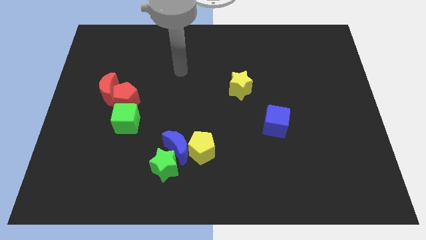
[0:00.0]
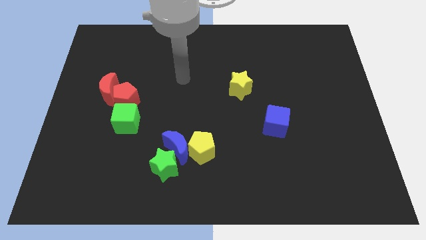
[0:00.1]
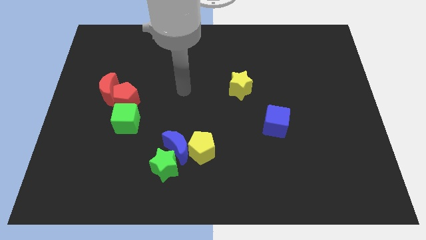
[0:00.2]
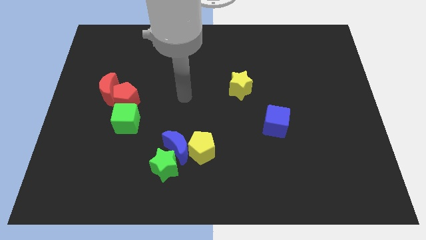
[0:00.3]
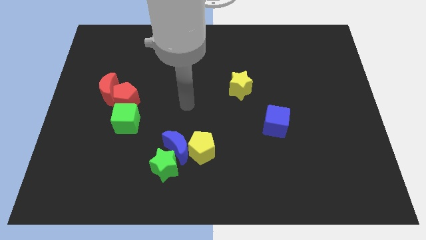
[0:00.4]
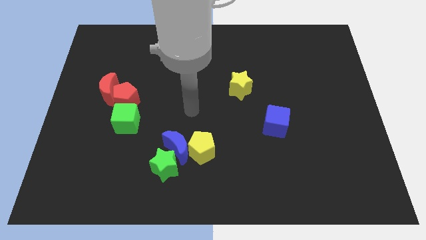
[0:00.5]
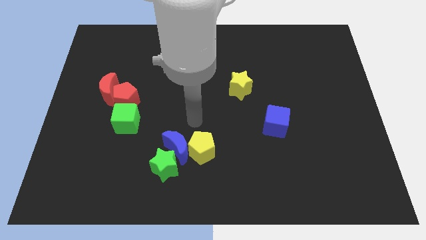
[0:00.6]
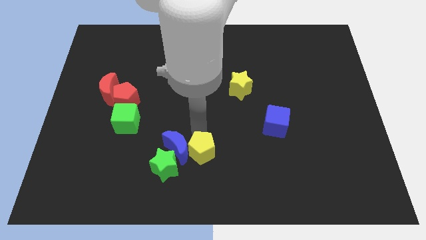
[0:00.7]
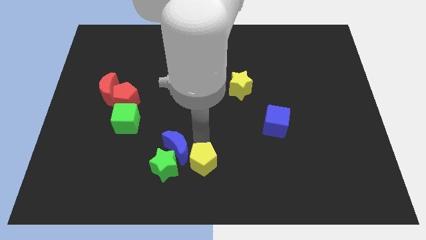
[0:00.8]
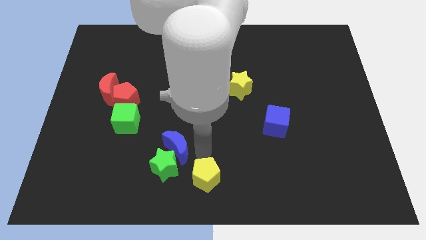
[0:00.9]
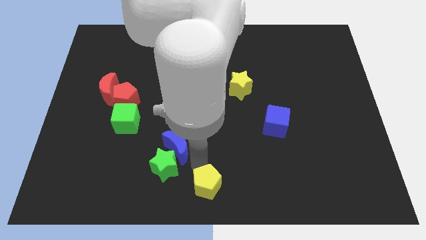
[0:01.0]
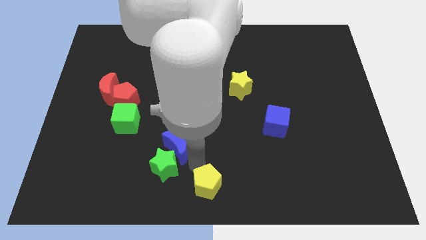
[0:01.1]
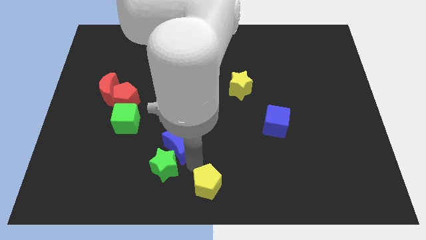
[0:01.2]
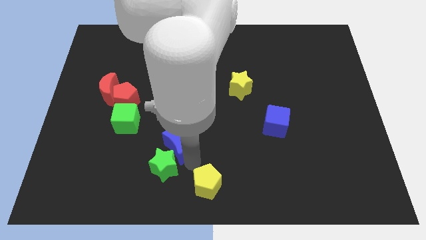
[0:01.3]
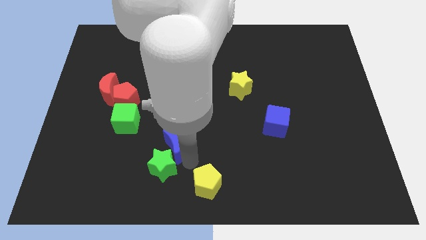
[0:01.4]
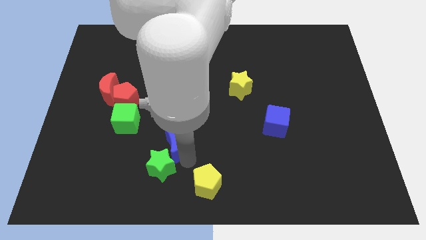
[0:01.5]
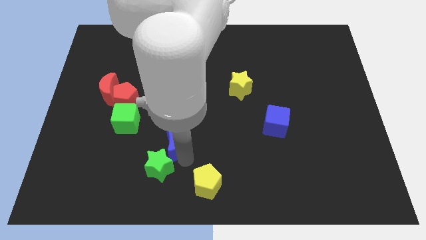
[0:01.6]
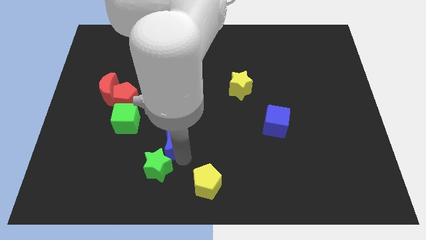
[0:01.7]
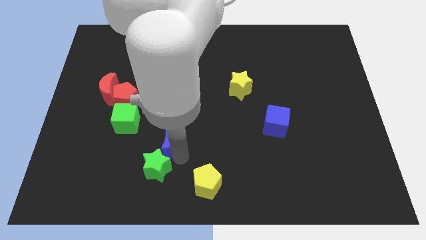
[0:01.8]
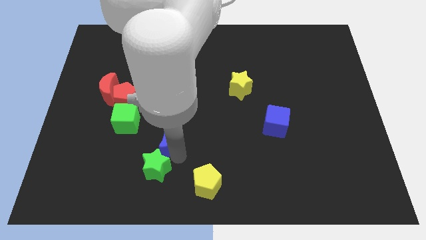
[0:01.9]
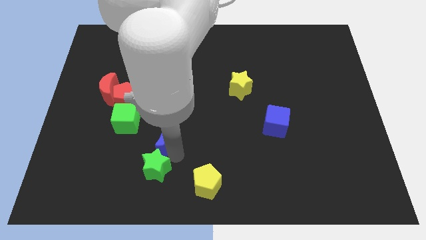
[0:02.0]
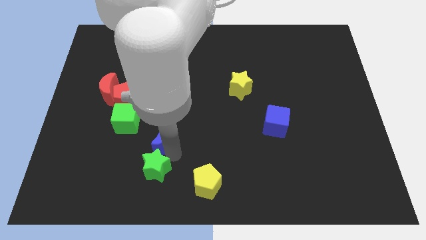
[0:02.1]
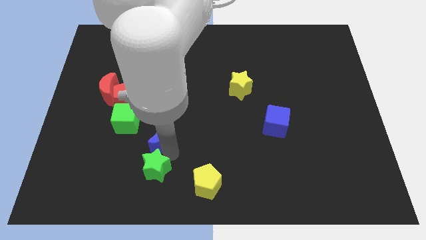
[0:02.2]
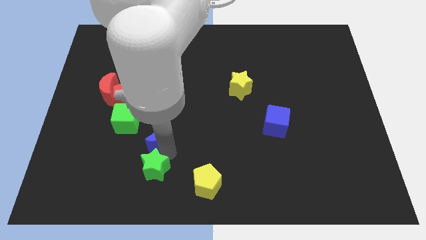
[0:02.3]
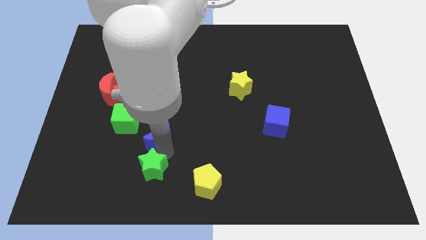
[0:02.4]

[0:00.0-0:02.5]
move the blue moon away from the green star and yellow pentagon

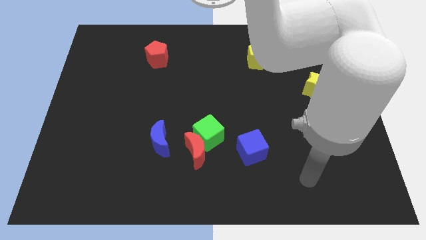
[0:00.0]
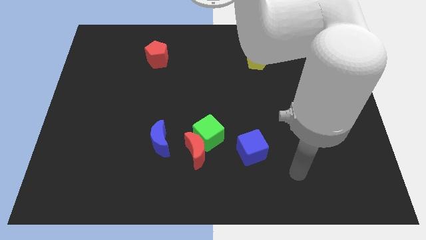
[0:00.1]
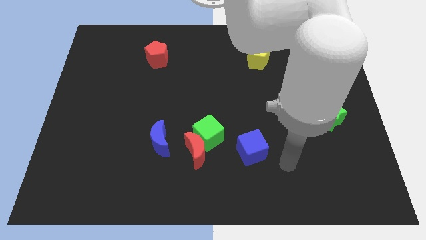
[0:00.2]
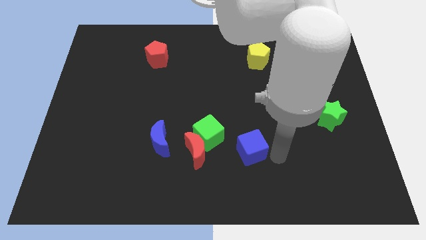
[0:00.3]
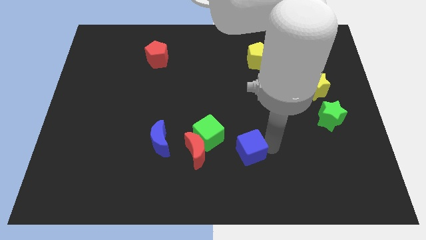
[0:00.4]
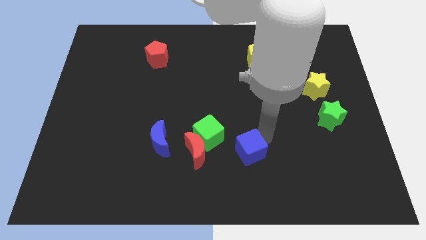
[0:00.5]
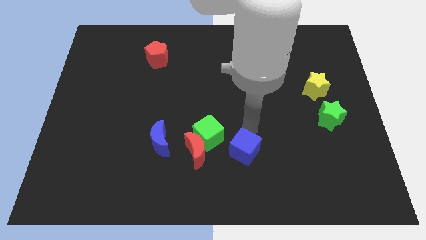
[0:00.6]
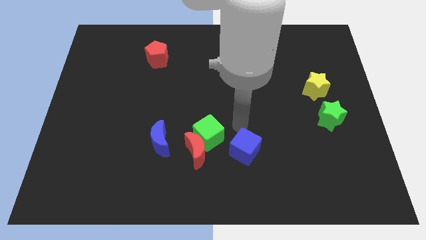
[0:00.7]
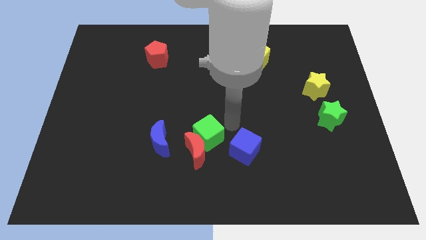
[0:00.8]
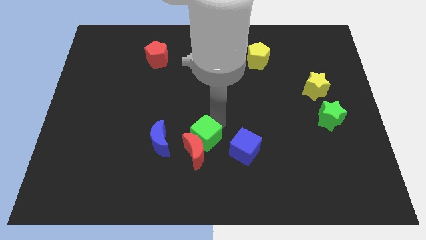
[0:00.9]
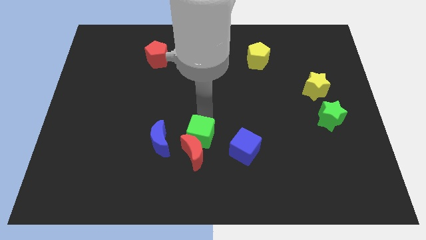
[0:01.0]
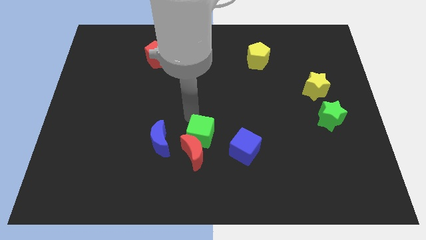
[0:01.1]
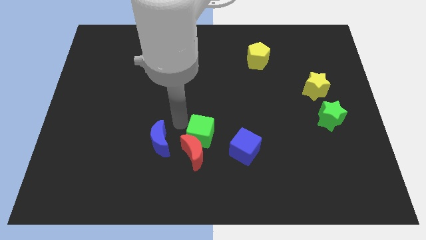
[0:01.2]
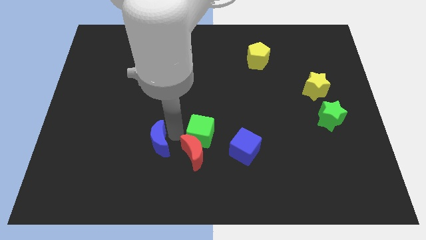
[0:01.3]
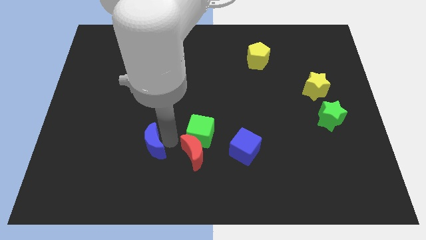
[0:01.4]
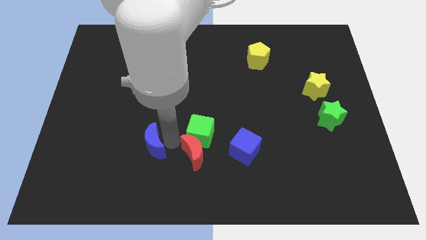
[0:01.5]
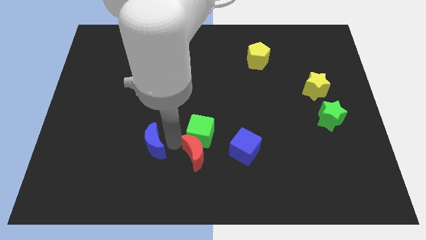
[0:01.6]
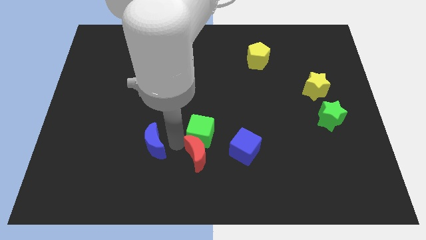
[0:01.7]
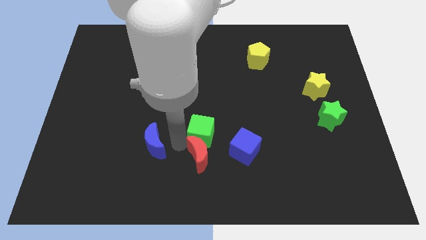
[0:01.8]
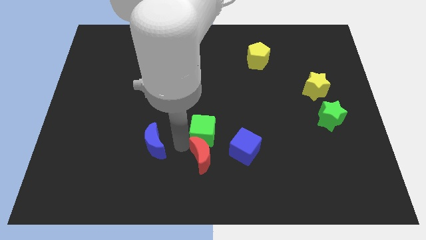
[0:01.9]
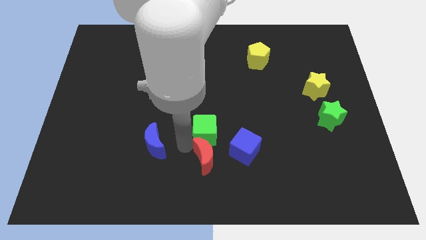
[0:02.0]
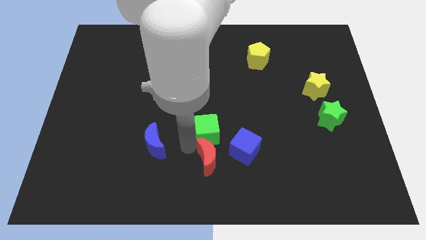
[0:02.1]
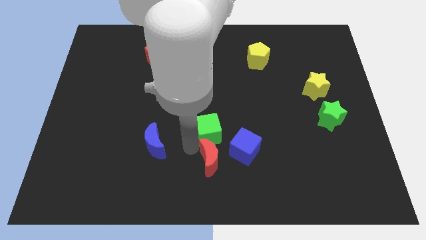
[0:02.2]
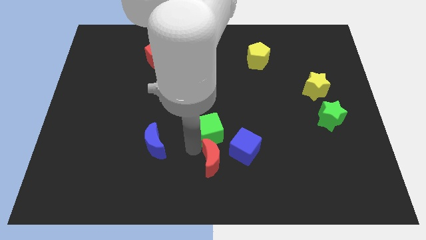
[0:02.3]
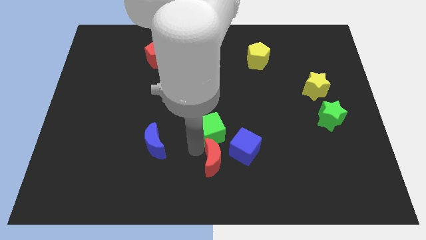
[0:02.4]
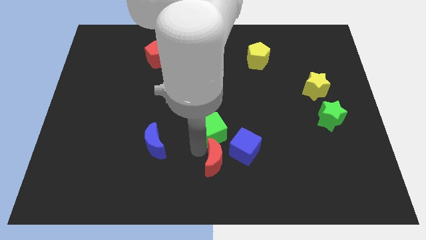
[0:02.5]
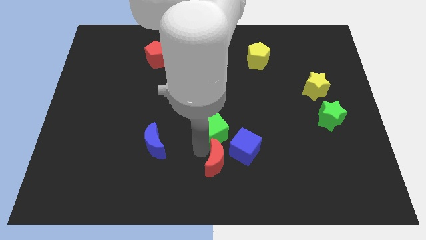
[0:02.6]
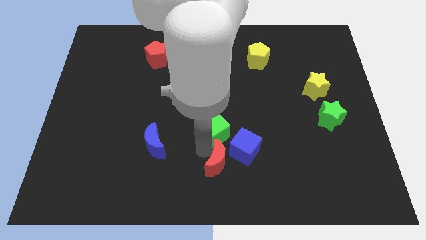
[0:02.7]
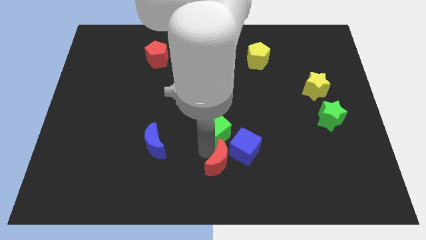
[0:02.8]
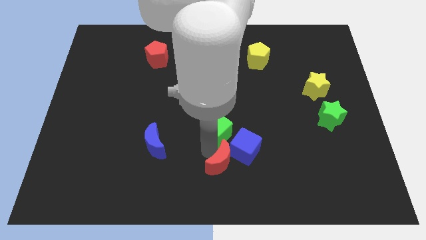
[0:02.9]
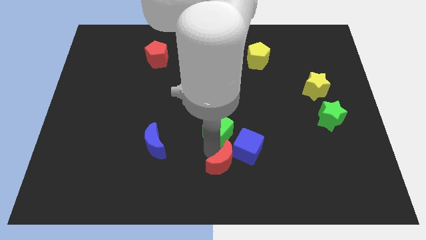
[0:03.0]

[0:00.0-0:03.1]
pull the red moon apart from the green cube and blue moon

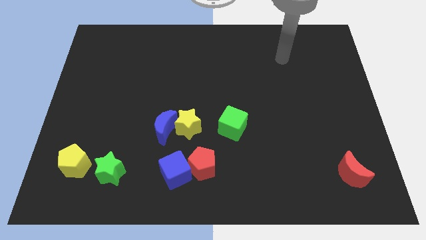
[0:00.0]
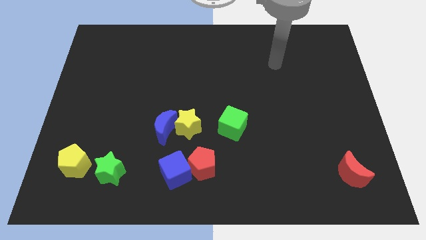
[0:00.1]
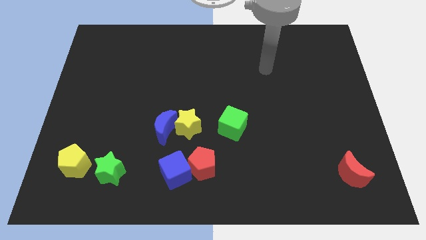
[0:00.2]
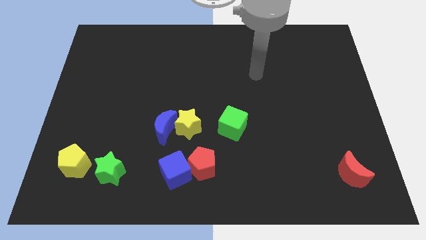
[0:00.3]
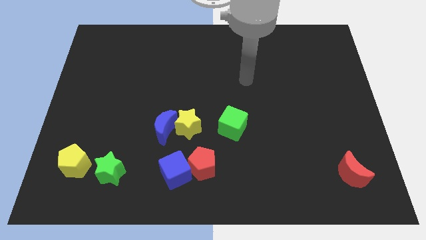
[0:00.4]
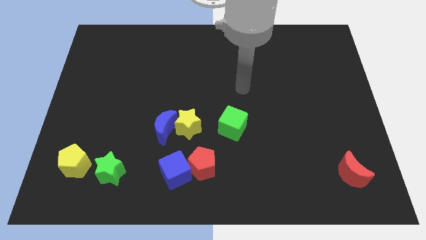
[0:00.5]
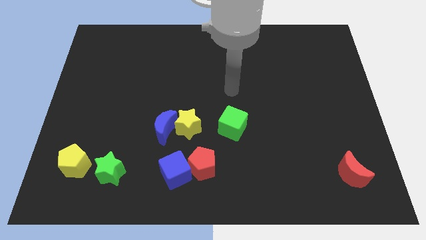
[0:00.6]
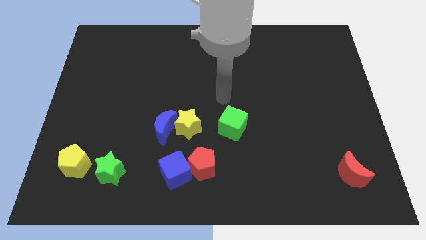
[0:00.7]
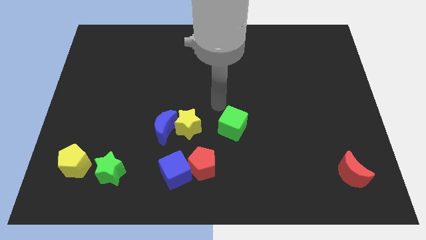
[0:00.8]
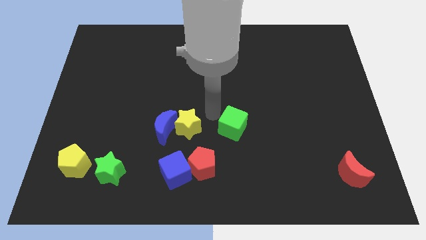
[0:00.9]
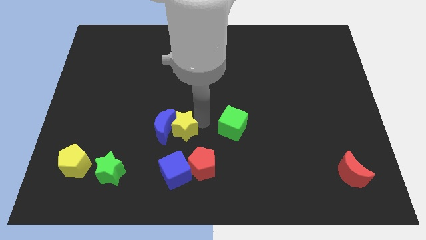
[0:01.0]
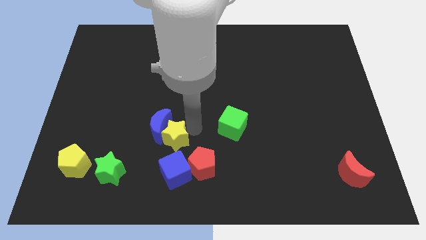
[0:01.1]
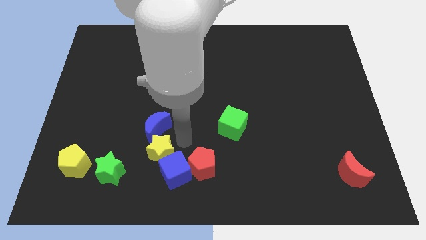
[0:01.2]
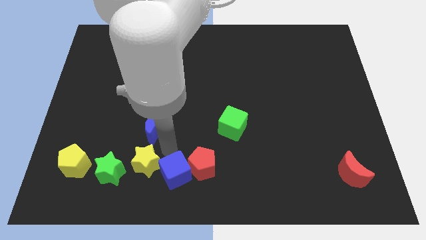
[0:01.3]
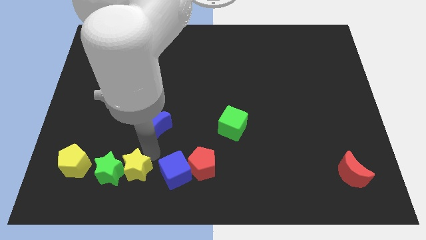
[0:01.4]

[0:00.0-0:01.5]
pull the blue moon apart from the yellow star

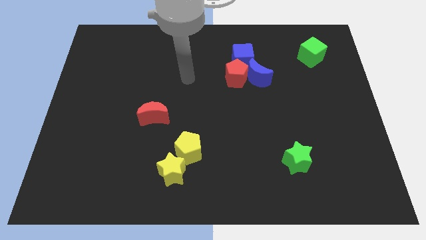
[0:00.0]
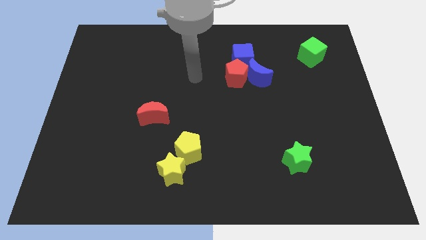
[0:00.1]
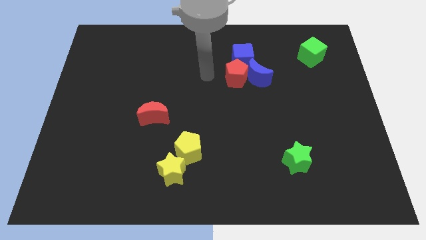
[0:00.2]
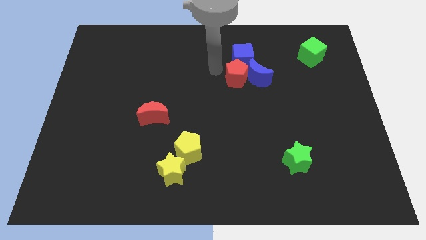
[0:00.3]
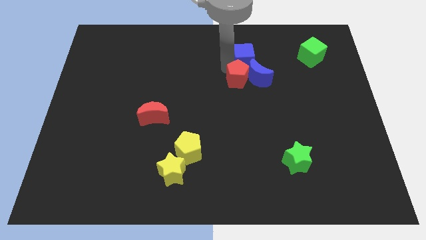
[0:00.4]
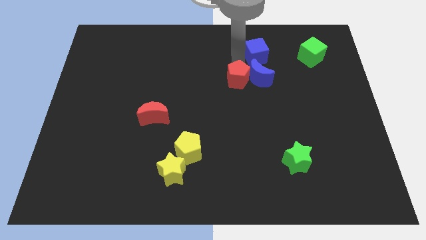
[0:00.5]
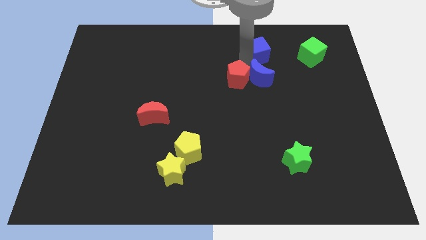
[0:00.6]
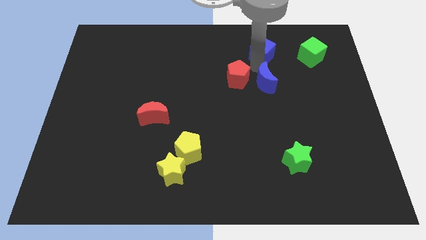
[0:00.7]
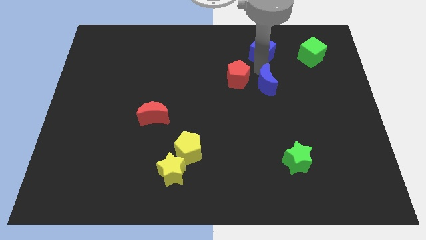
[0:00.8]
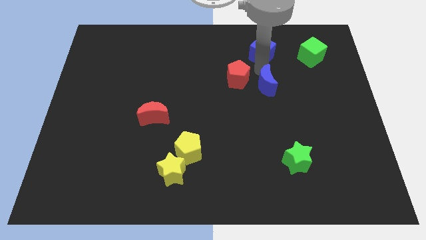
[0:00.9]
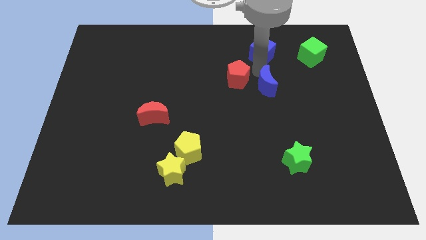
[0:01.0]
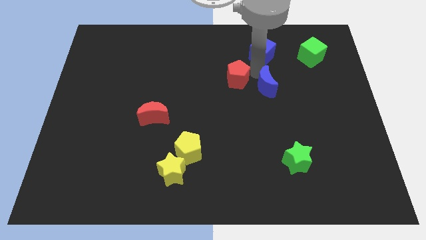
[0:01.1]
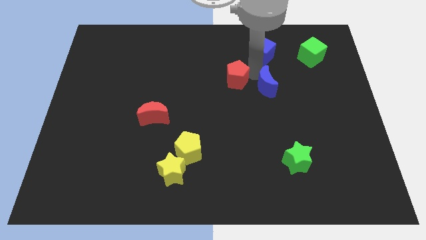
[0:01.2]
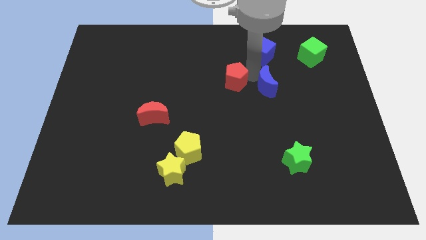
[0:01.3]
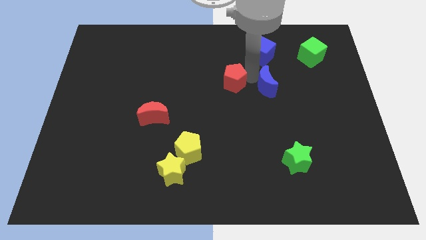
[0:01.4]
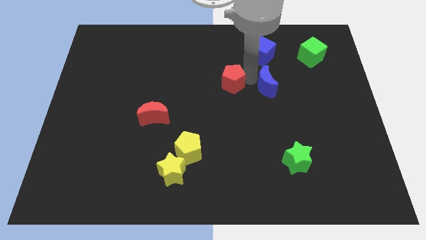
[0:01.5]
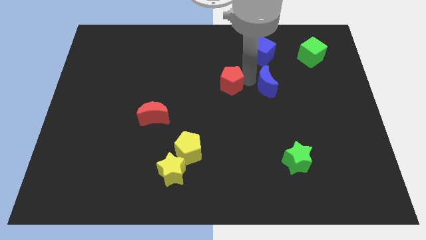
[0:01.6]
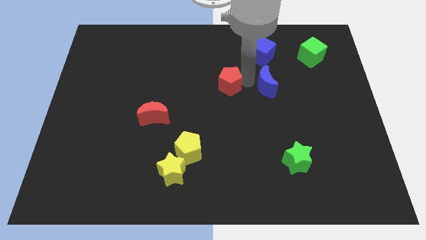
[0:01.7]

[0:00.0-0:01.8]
move the red pentagon away from the blue moon and blue cube

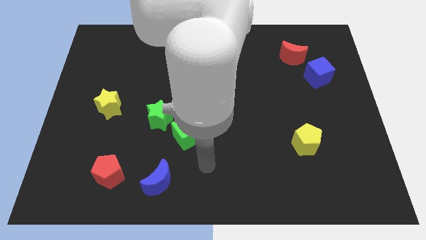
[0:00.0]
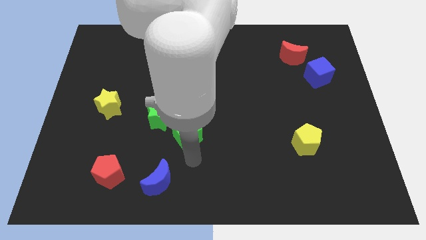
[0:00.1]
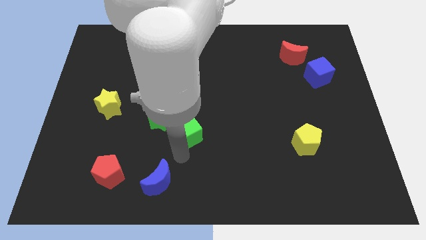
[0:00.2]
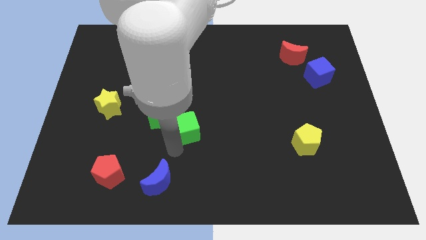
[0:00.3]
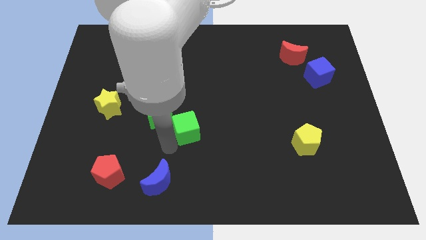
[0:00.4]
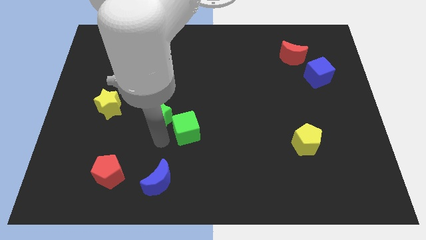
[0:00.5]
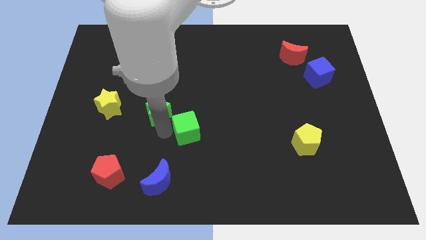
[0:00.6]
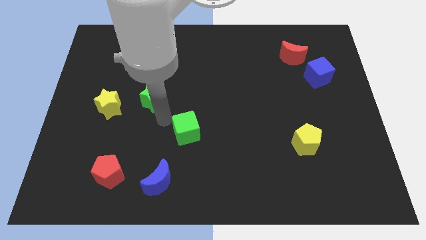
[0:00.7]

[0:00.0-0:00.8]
pull the green cube apart from the green star
